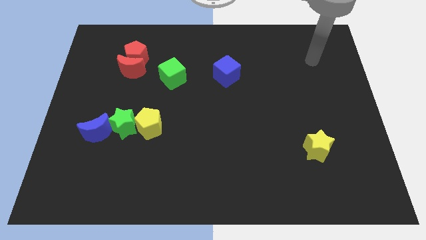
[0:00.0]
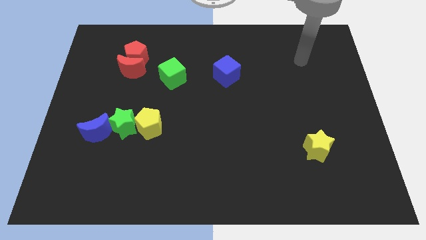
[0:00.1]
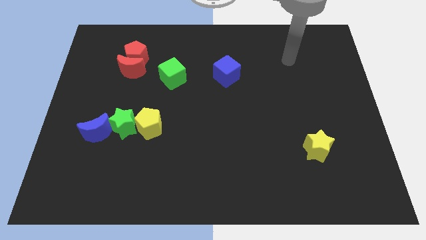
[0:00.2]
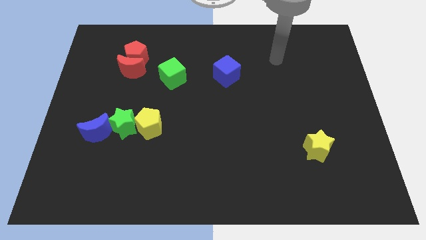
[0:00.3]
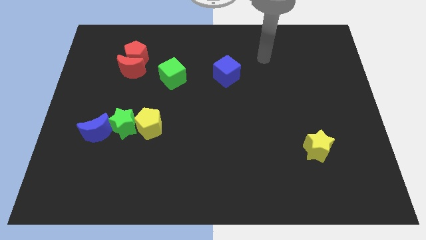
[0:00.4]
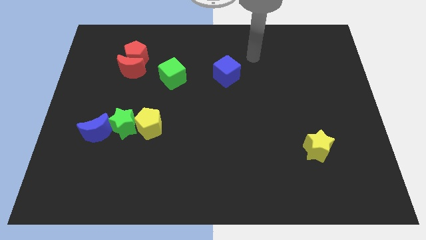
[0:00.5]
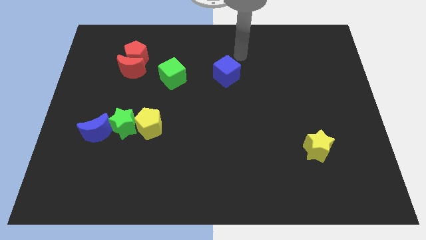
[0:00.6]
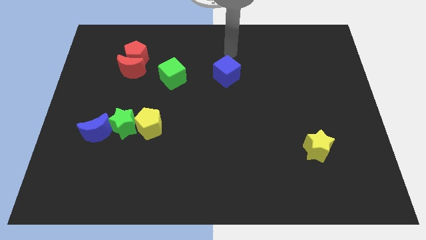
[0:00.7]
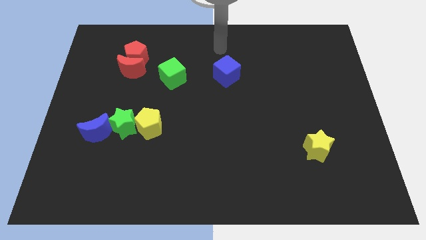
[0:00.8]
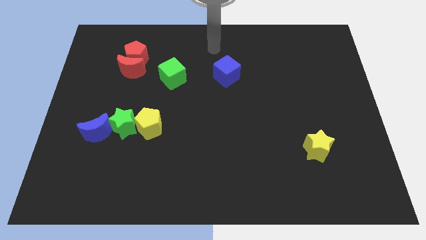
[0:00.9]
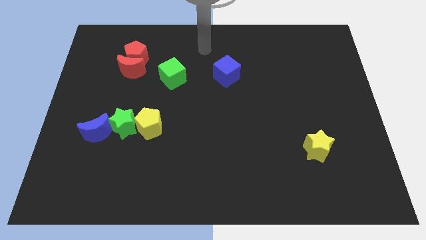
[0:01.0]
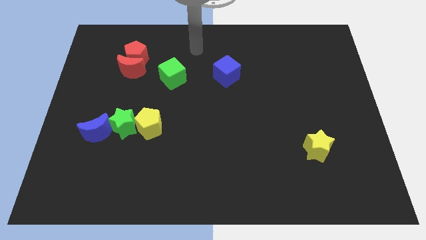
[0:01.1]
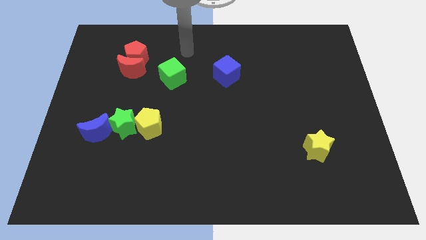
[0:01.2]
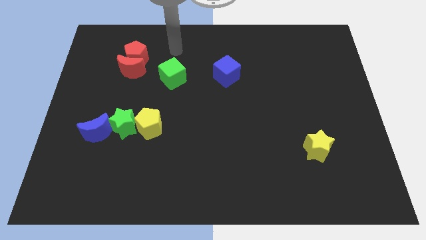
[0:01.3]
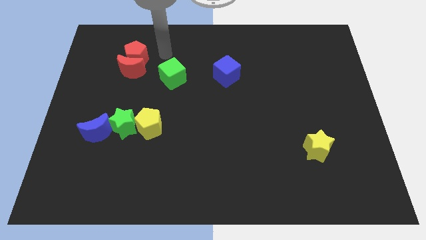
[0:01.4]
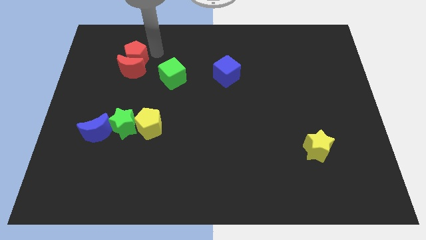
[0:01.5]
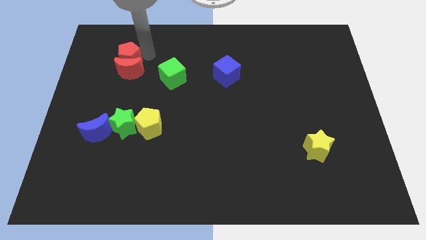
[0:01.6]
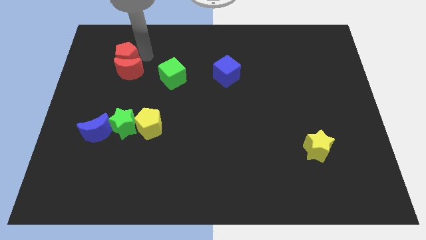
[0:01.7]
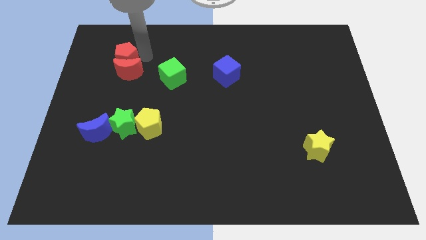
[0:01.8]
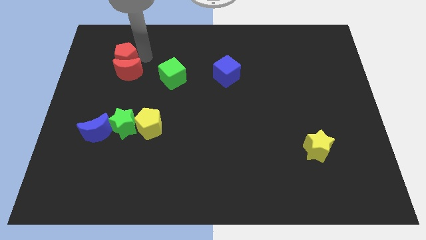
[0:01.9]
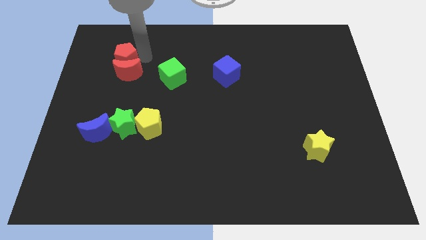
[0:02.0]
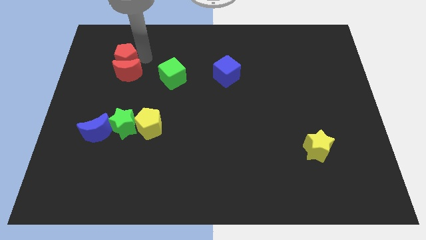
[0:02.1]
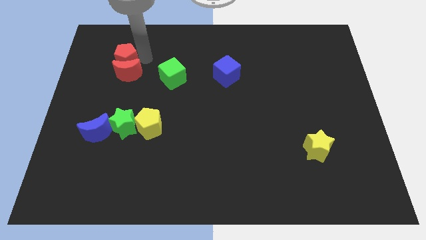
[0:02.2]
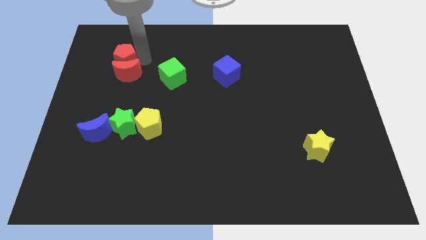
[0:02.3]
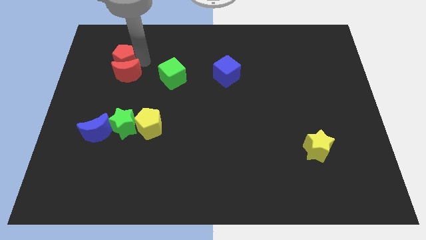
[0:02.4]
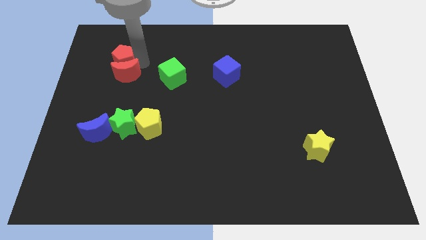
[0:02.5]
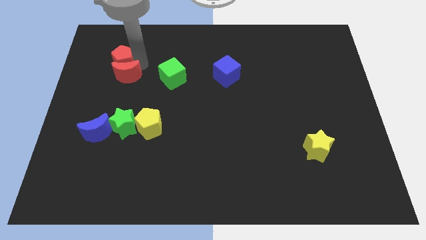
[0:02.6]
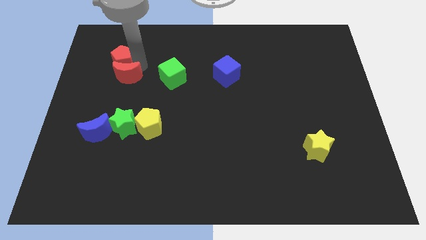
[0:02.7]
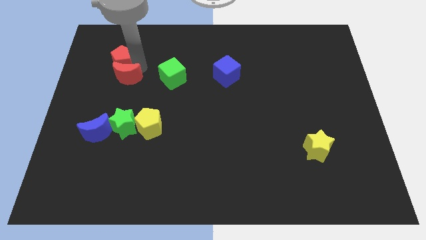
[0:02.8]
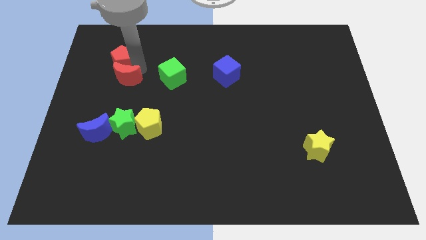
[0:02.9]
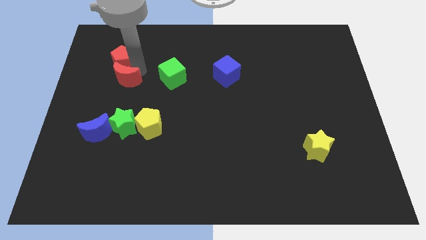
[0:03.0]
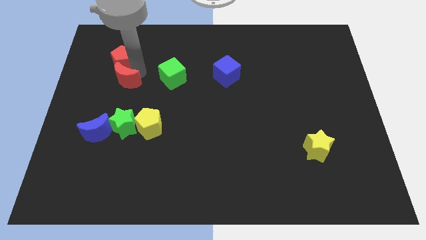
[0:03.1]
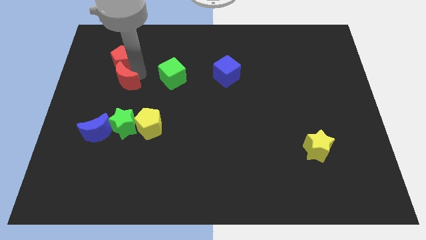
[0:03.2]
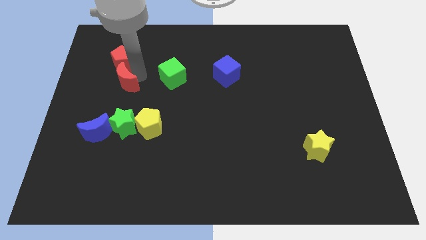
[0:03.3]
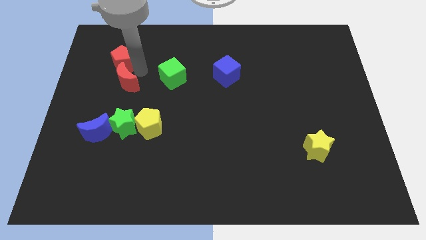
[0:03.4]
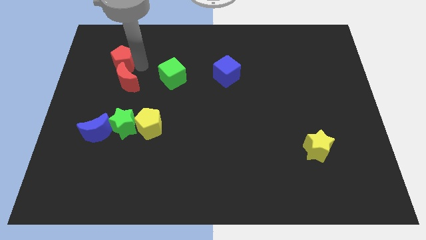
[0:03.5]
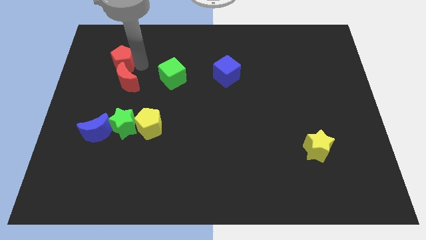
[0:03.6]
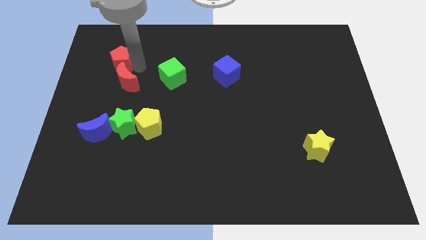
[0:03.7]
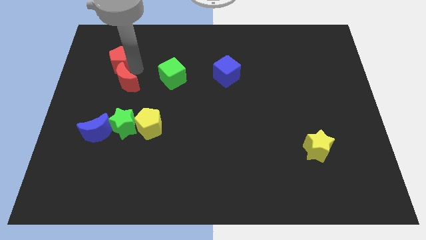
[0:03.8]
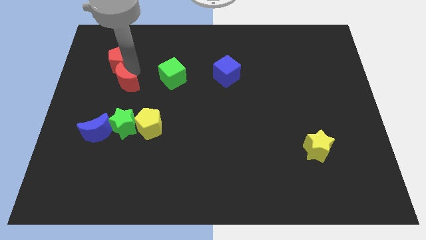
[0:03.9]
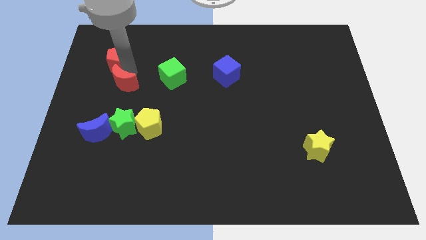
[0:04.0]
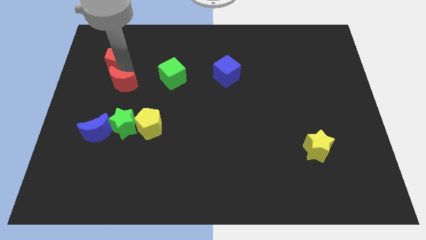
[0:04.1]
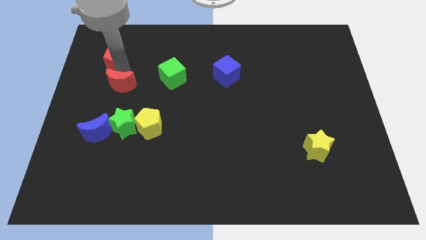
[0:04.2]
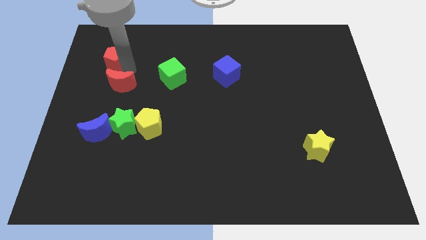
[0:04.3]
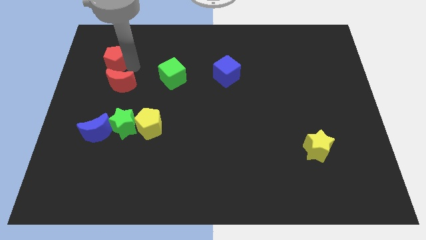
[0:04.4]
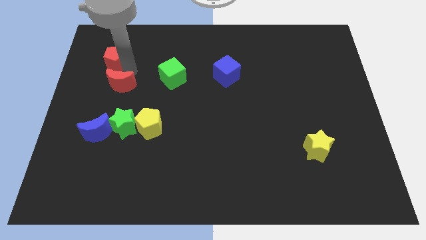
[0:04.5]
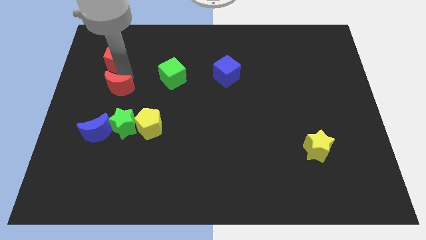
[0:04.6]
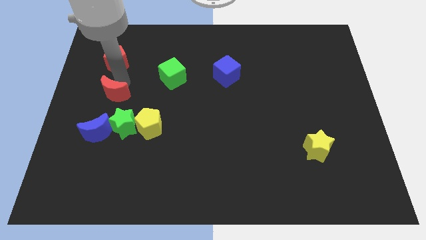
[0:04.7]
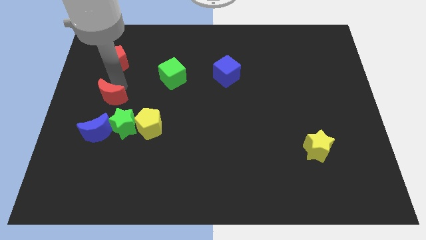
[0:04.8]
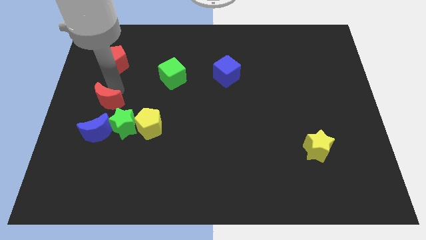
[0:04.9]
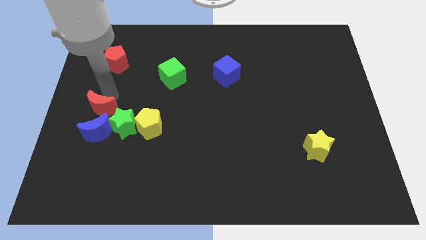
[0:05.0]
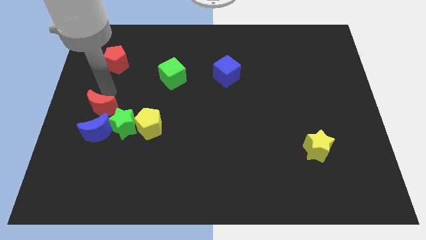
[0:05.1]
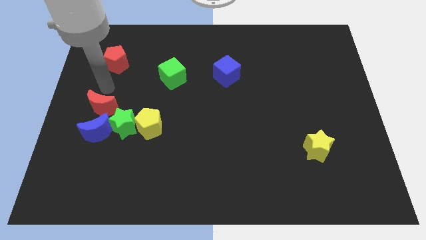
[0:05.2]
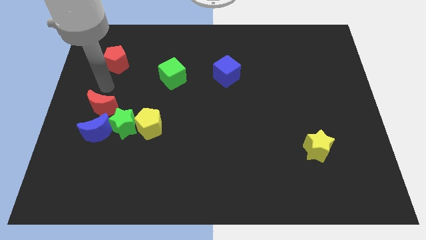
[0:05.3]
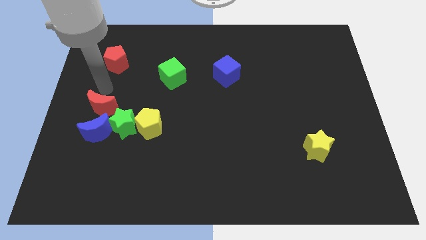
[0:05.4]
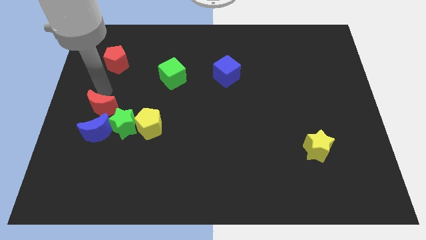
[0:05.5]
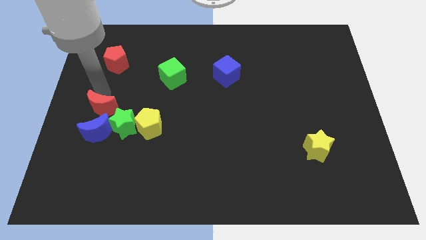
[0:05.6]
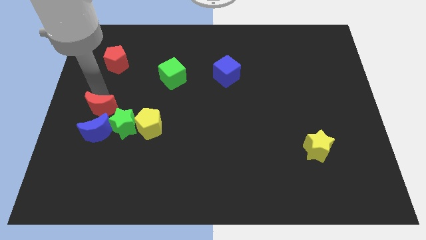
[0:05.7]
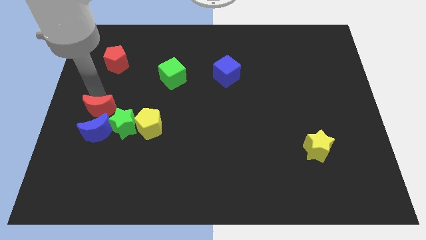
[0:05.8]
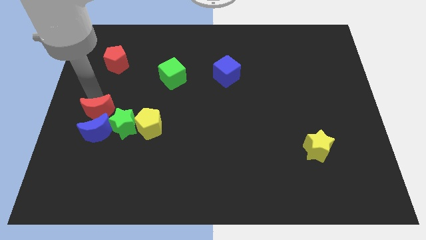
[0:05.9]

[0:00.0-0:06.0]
slide the red moon next to the blue moon

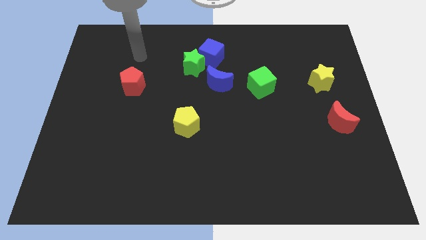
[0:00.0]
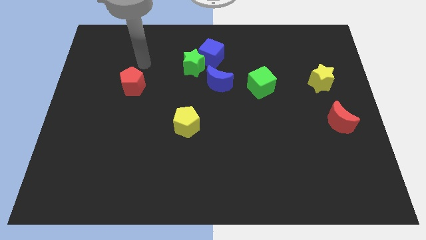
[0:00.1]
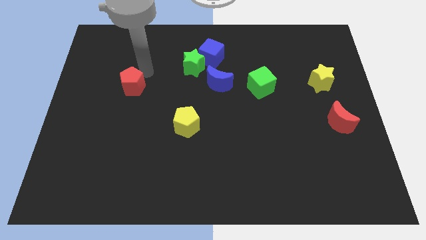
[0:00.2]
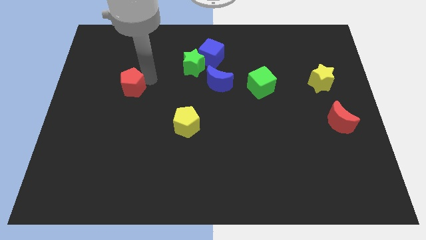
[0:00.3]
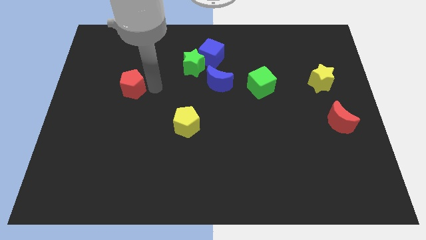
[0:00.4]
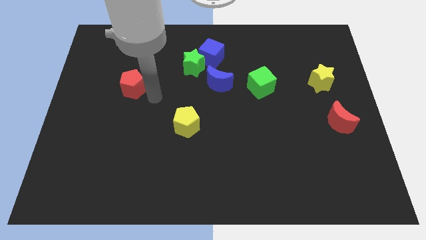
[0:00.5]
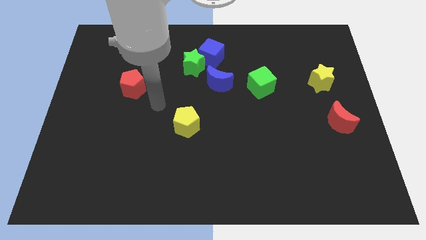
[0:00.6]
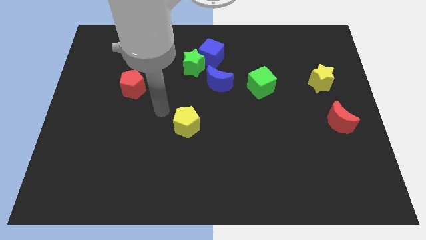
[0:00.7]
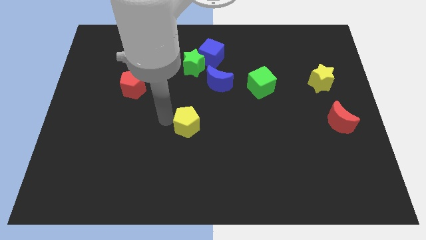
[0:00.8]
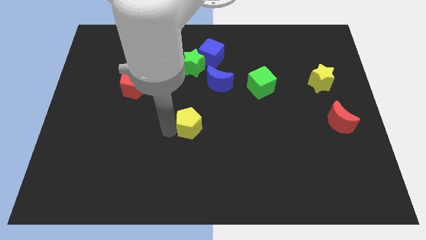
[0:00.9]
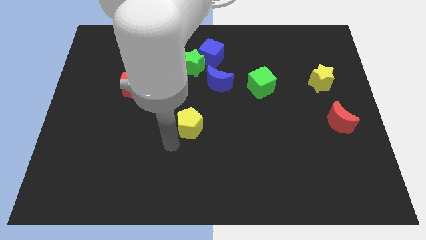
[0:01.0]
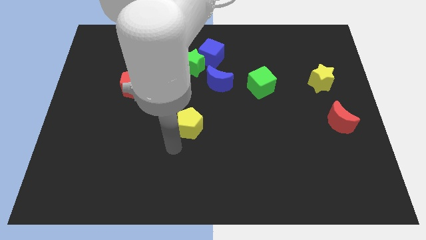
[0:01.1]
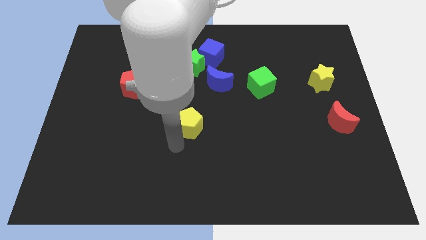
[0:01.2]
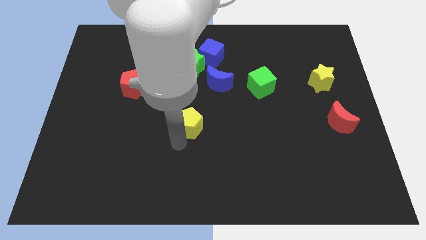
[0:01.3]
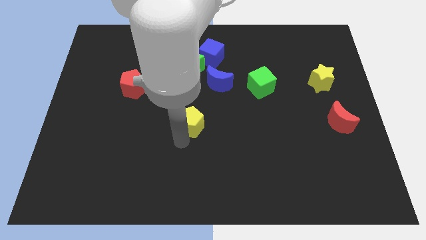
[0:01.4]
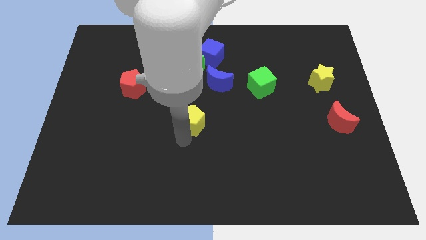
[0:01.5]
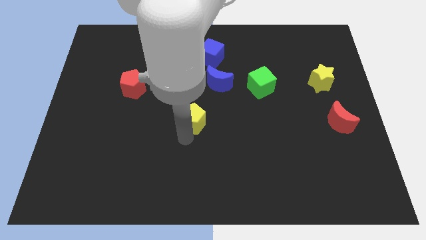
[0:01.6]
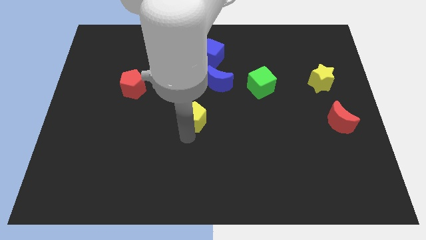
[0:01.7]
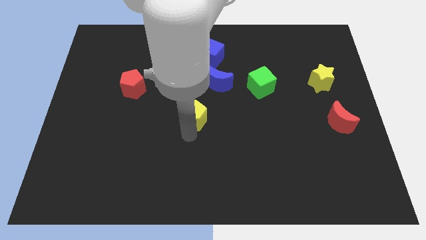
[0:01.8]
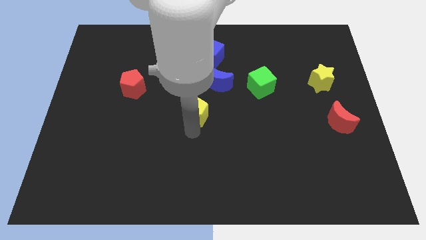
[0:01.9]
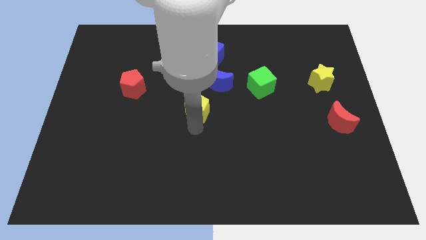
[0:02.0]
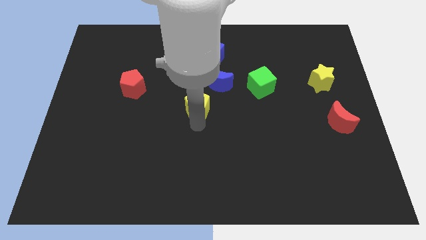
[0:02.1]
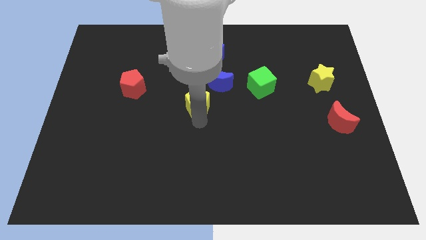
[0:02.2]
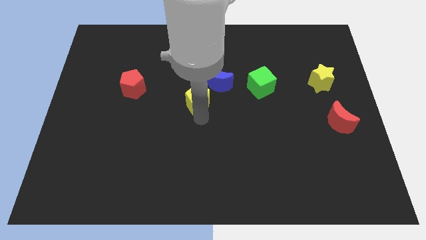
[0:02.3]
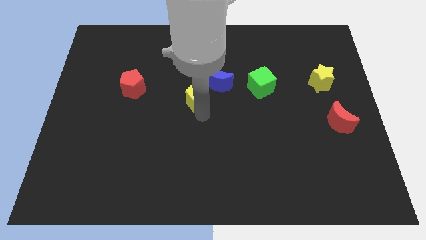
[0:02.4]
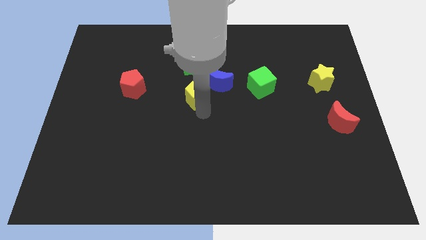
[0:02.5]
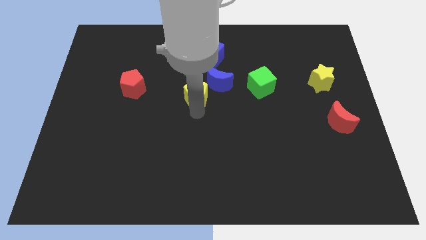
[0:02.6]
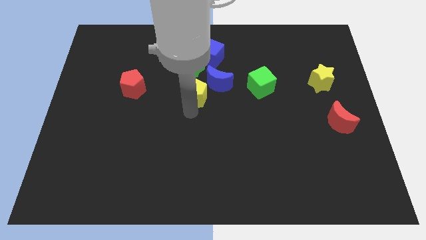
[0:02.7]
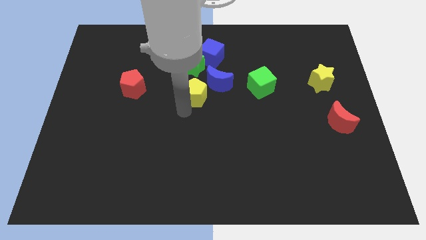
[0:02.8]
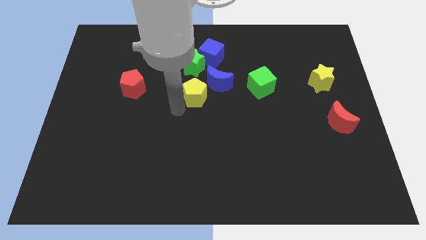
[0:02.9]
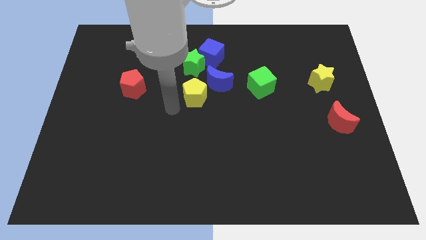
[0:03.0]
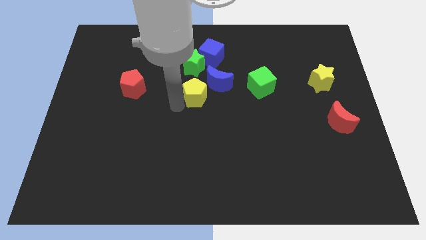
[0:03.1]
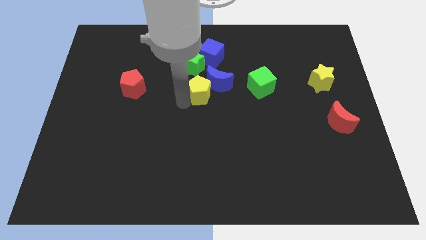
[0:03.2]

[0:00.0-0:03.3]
put the yellow pentagon close to the blue moon
